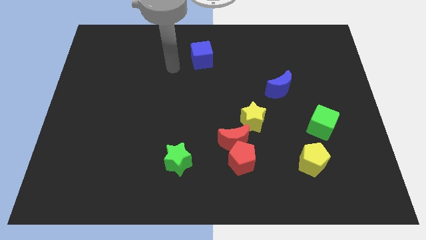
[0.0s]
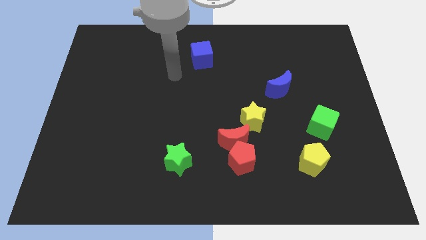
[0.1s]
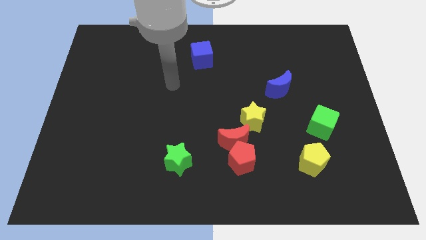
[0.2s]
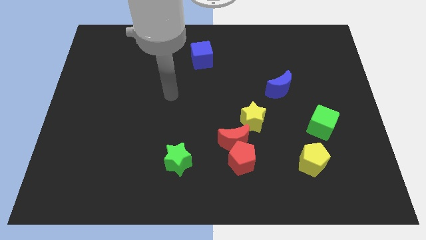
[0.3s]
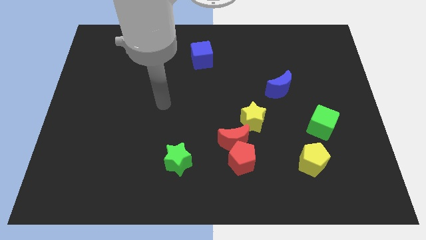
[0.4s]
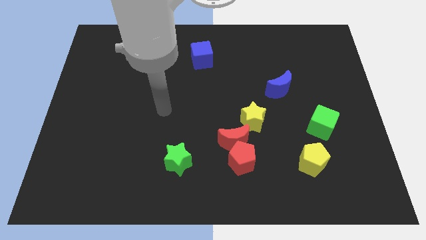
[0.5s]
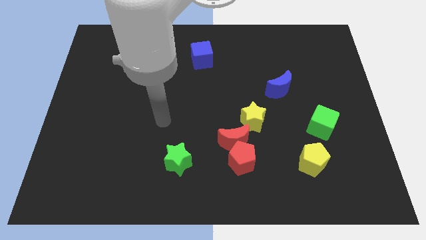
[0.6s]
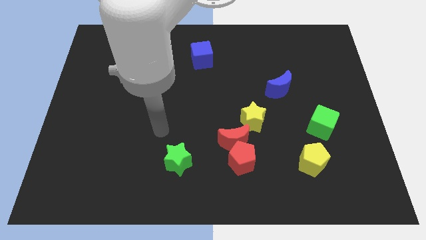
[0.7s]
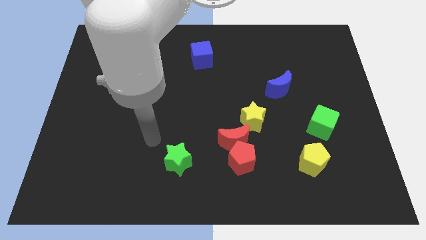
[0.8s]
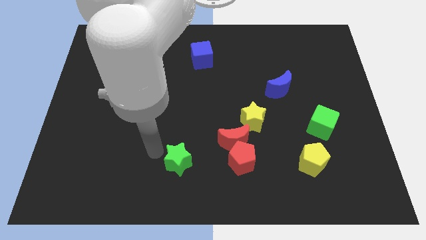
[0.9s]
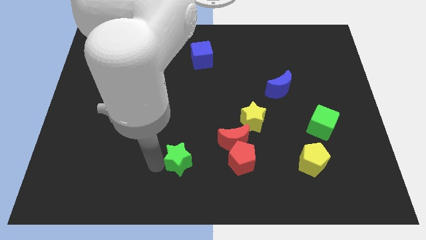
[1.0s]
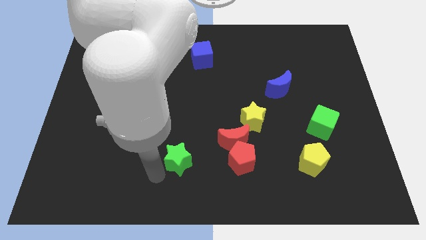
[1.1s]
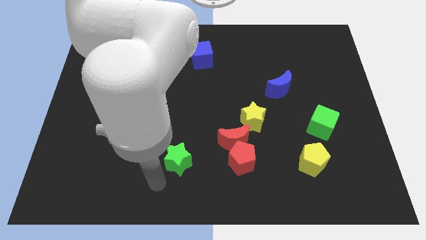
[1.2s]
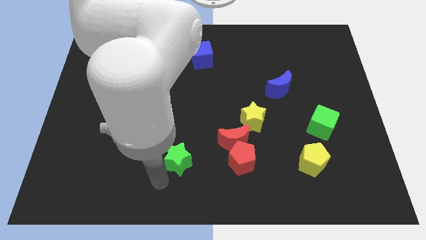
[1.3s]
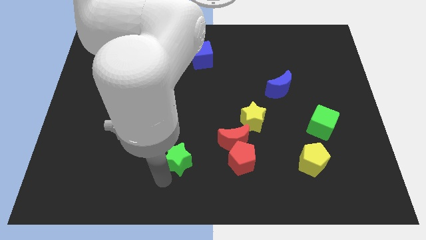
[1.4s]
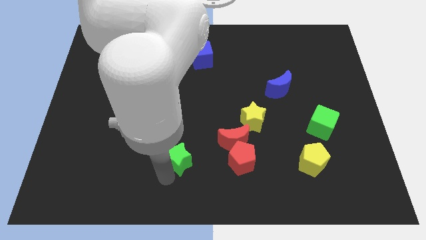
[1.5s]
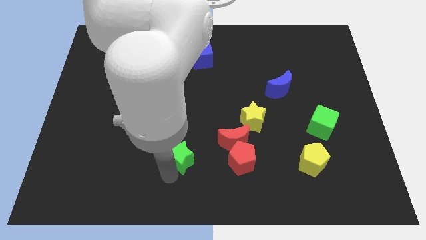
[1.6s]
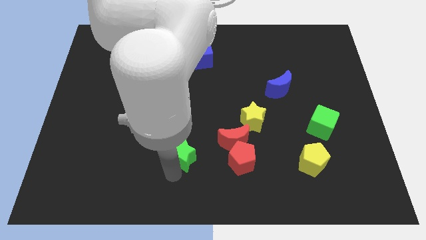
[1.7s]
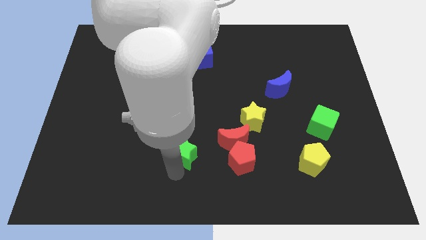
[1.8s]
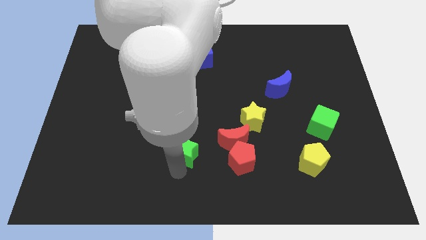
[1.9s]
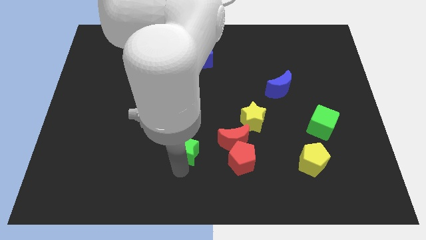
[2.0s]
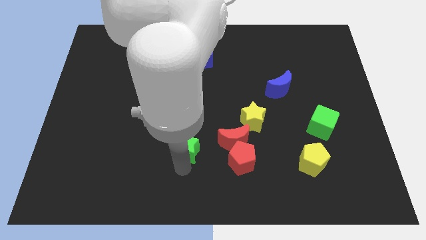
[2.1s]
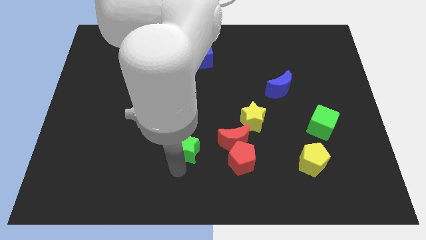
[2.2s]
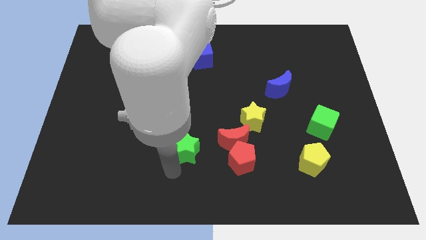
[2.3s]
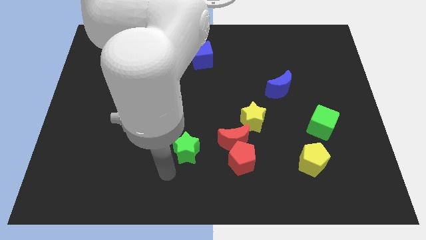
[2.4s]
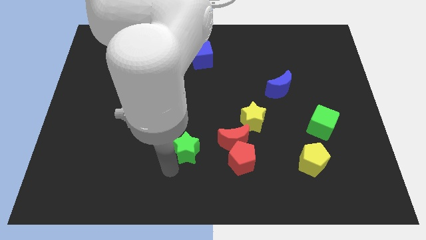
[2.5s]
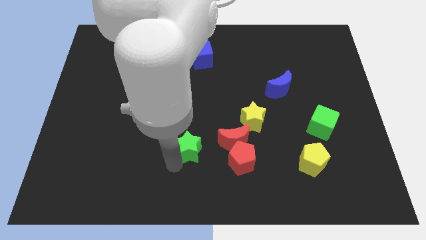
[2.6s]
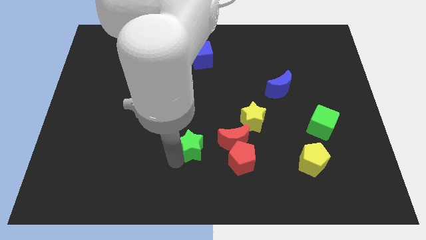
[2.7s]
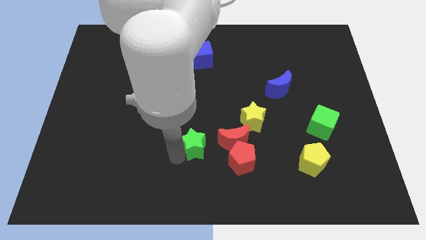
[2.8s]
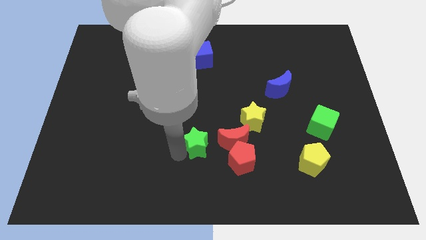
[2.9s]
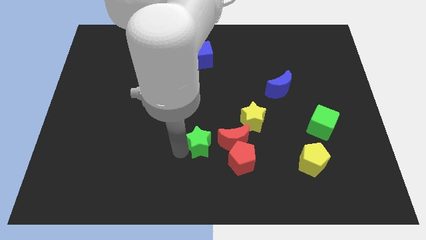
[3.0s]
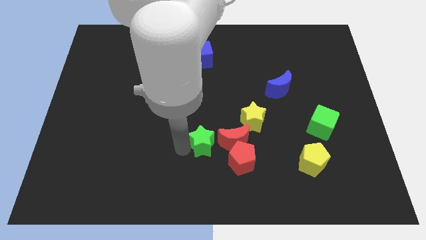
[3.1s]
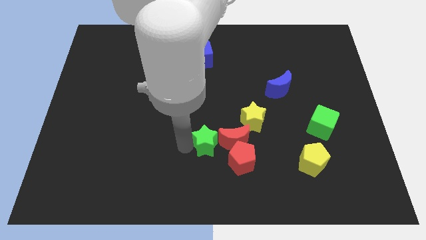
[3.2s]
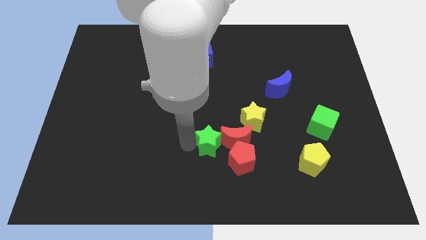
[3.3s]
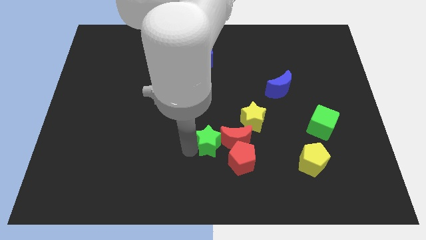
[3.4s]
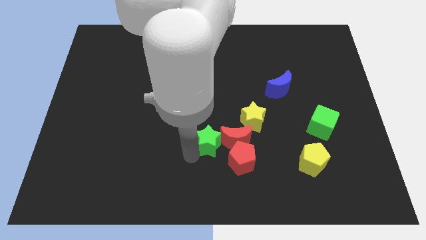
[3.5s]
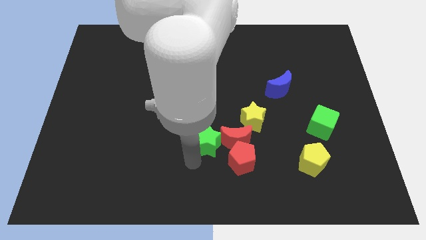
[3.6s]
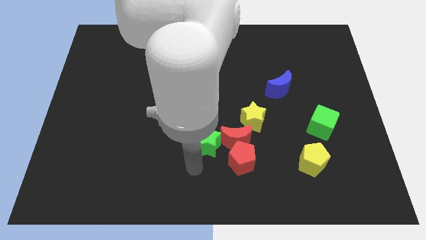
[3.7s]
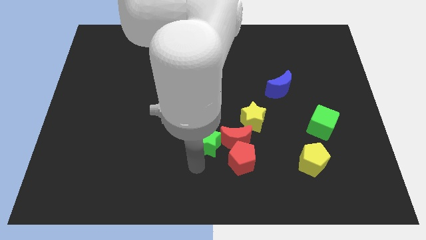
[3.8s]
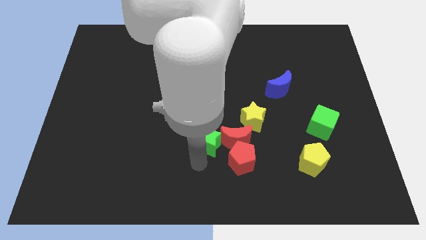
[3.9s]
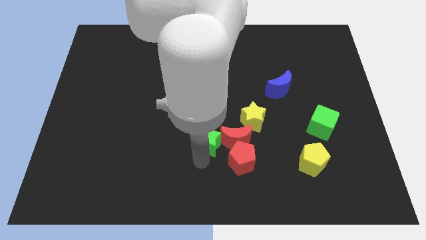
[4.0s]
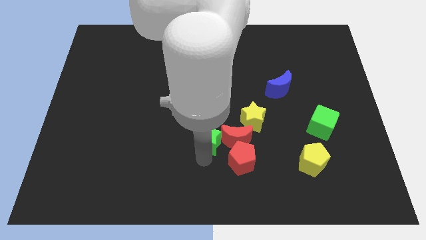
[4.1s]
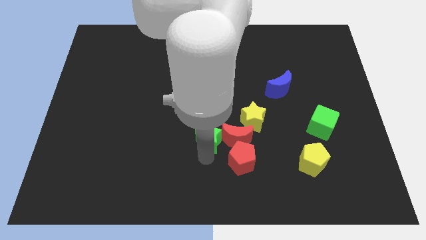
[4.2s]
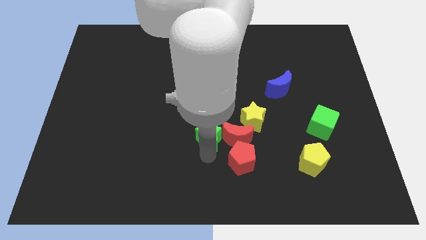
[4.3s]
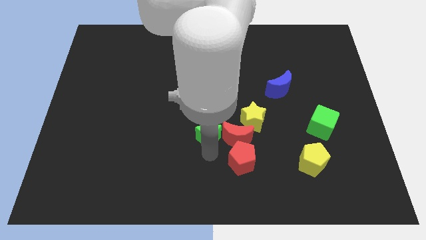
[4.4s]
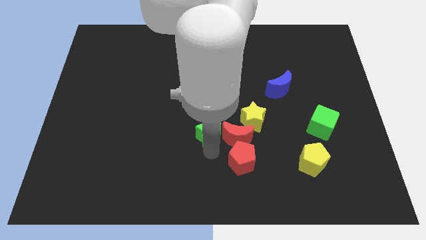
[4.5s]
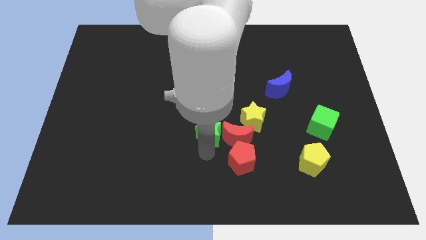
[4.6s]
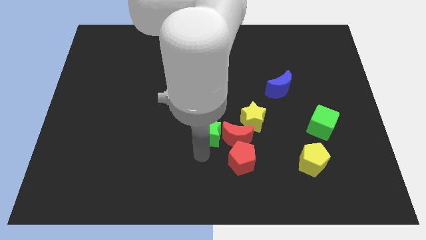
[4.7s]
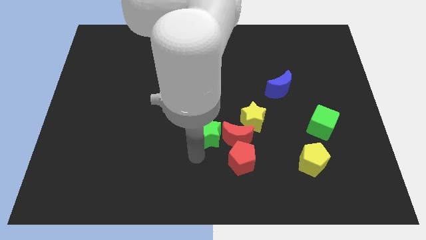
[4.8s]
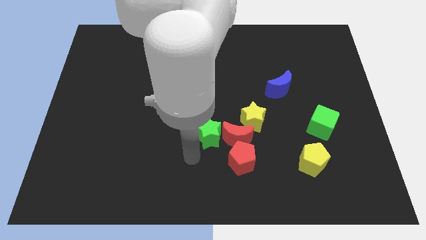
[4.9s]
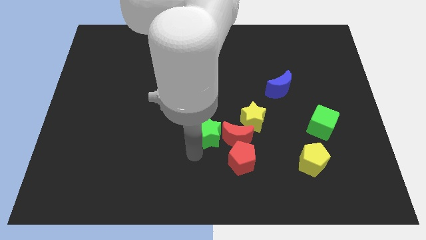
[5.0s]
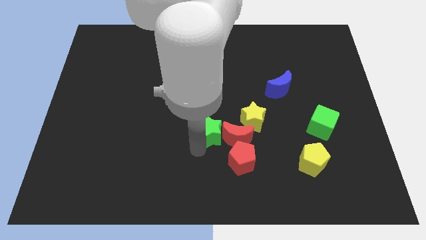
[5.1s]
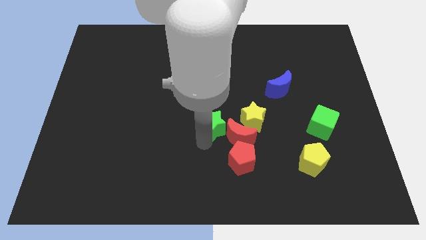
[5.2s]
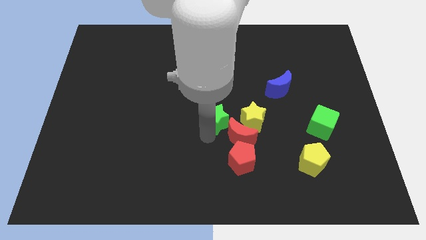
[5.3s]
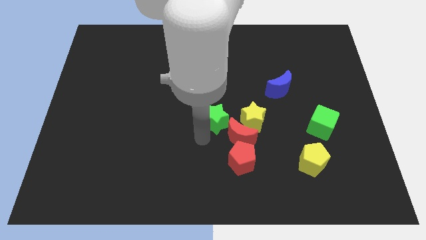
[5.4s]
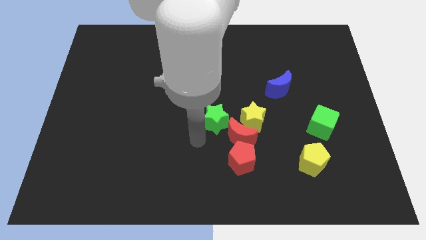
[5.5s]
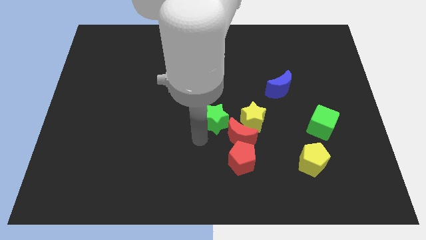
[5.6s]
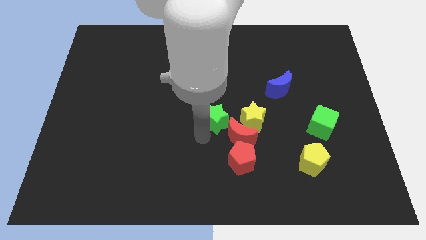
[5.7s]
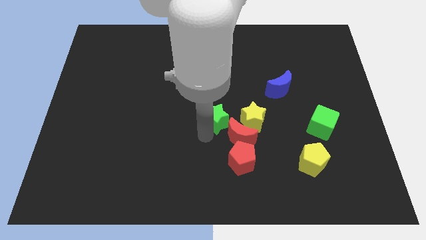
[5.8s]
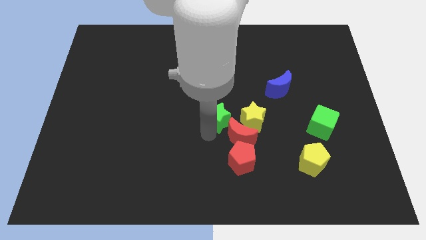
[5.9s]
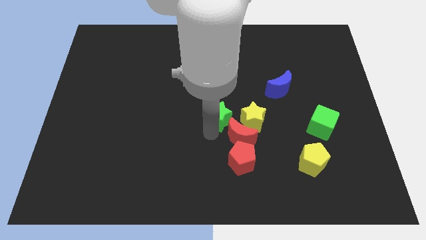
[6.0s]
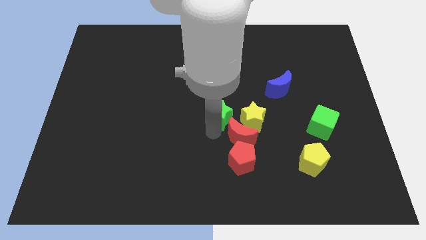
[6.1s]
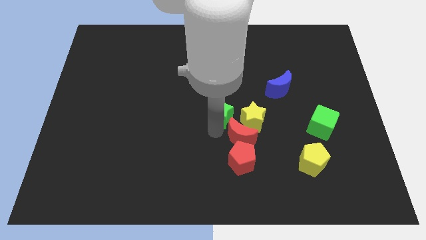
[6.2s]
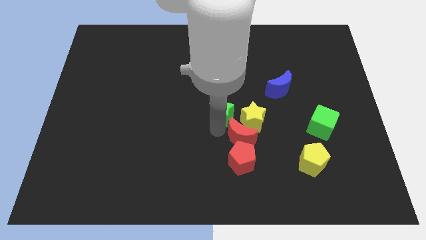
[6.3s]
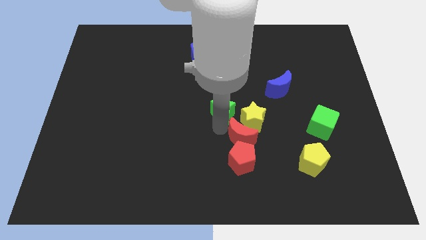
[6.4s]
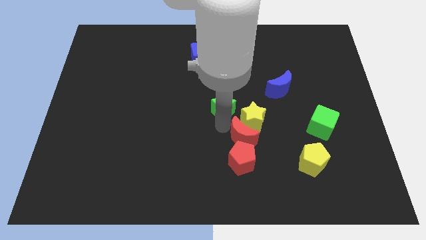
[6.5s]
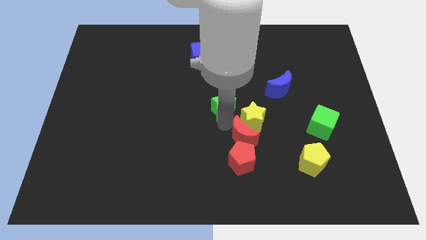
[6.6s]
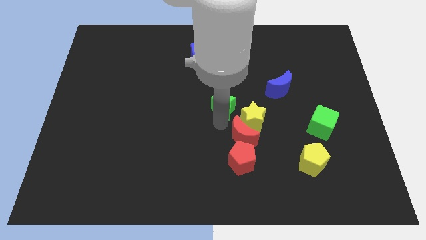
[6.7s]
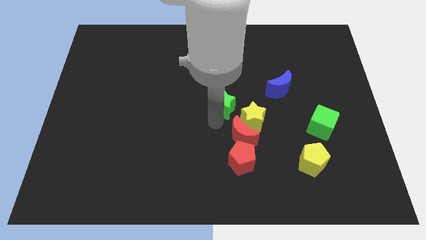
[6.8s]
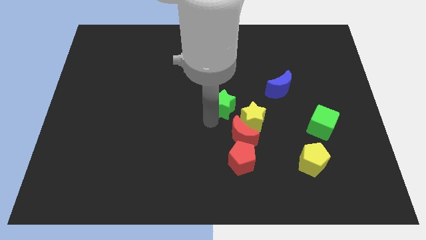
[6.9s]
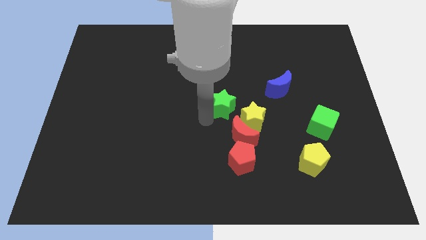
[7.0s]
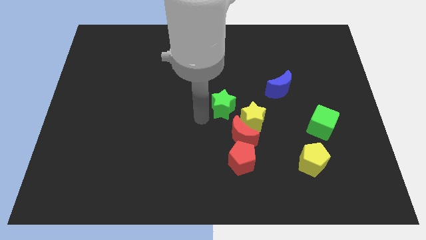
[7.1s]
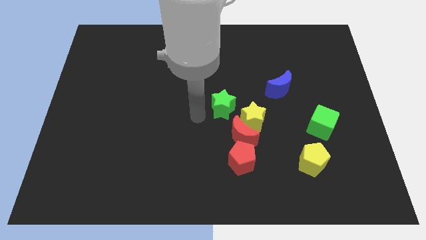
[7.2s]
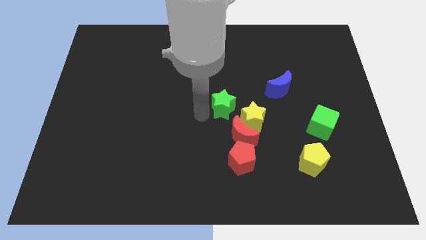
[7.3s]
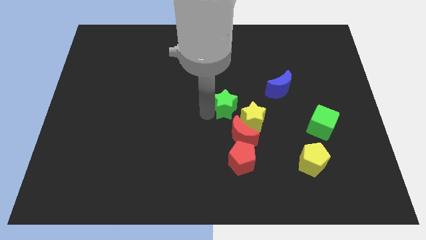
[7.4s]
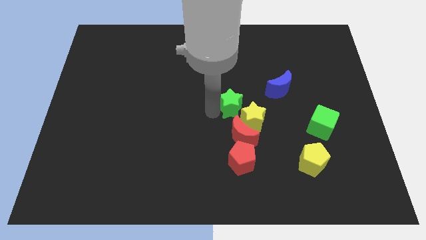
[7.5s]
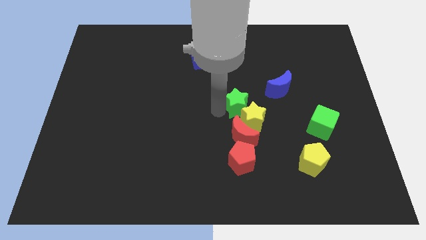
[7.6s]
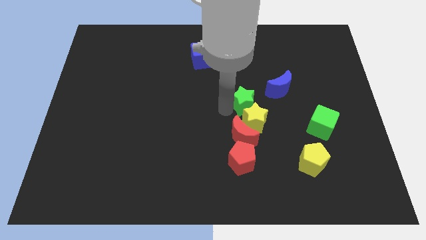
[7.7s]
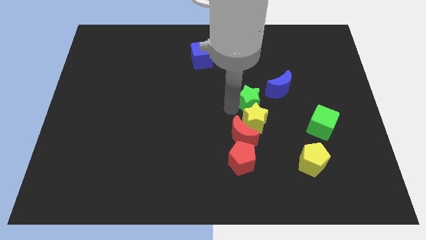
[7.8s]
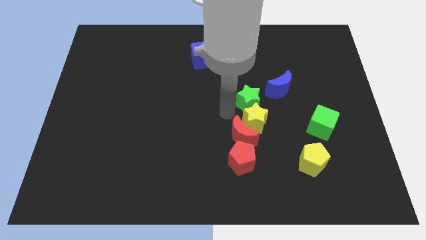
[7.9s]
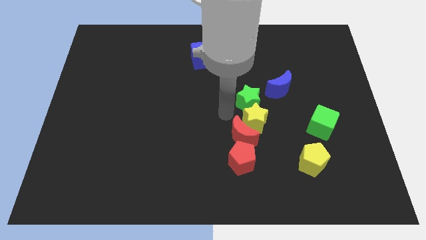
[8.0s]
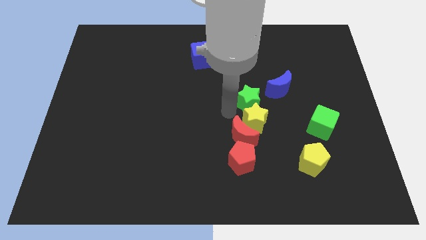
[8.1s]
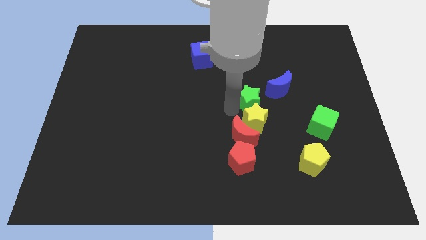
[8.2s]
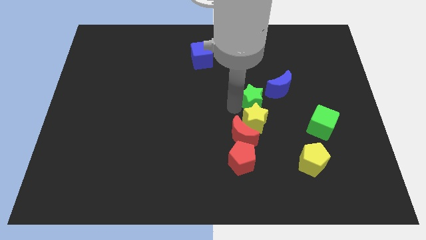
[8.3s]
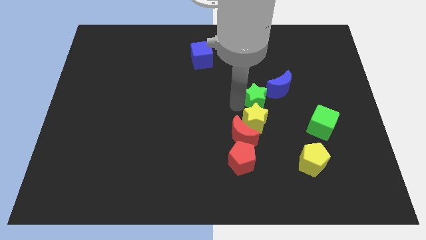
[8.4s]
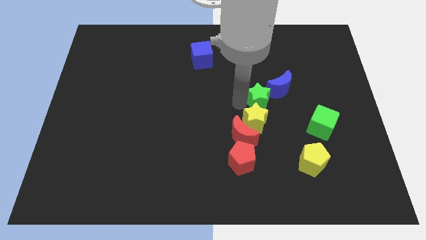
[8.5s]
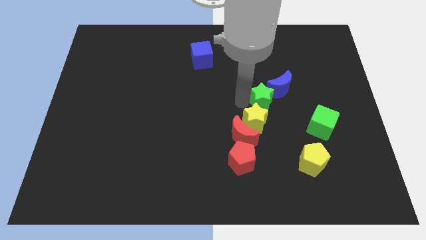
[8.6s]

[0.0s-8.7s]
put the green star close to the blue moon
